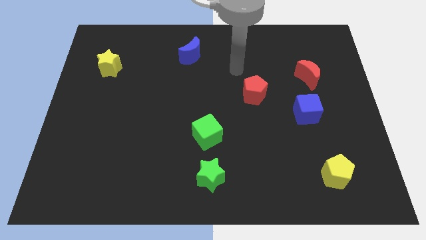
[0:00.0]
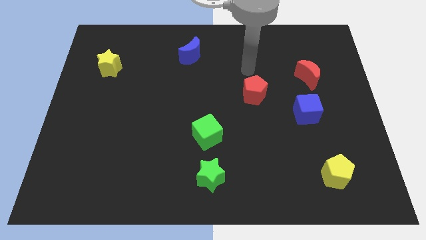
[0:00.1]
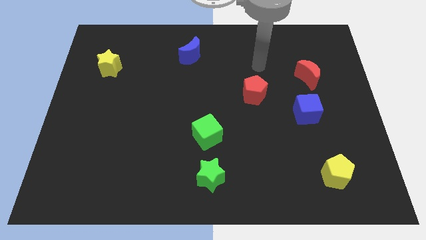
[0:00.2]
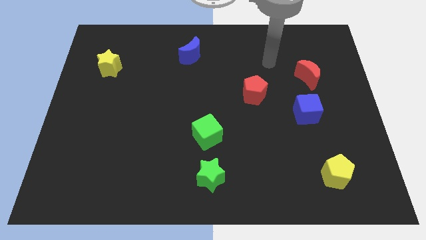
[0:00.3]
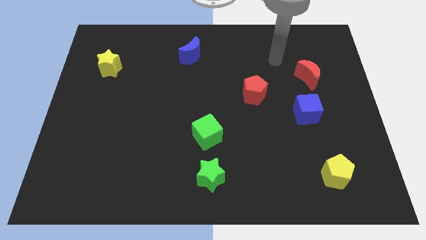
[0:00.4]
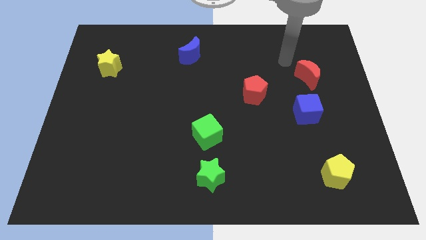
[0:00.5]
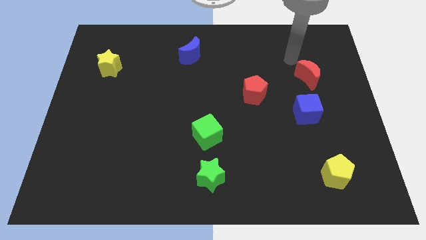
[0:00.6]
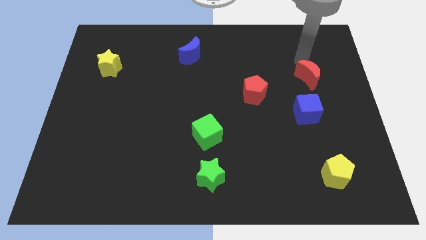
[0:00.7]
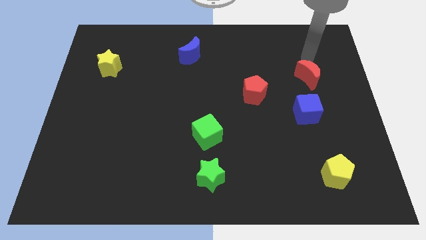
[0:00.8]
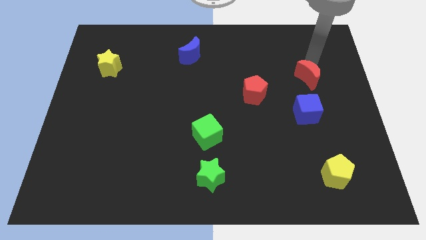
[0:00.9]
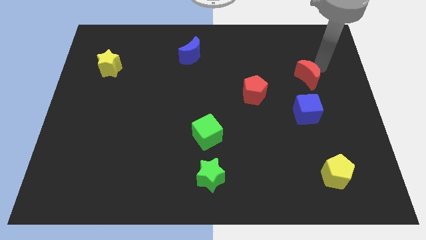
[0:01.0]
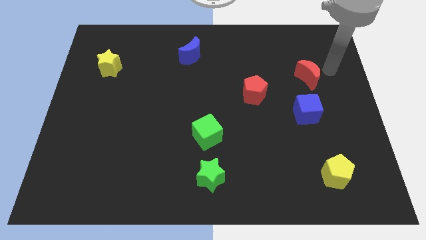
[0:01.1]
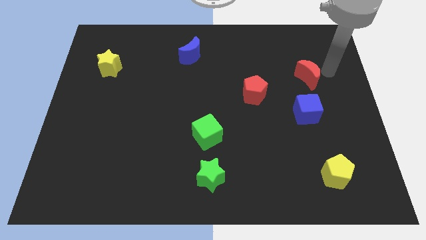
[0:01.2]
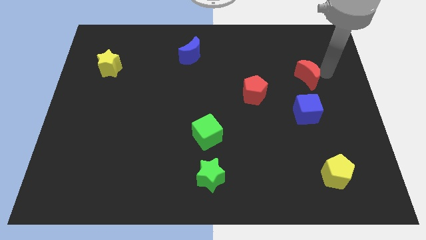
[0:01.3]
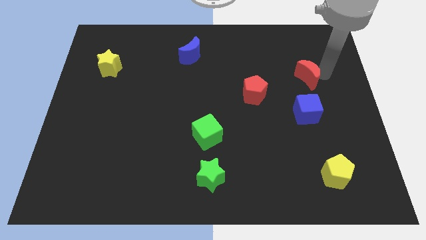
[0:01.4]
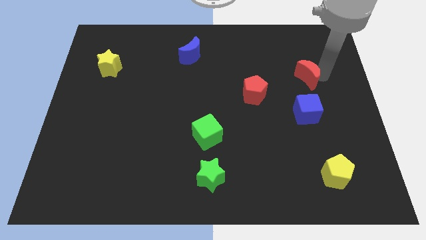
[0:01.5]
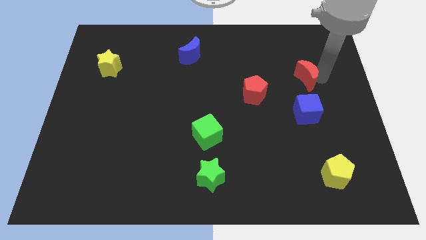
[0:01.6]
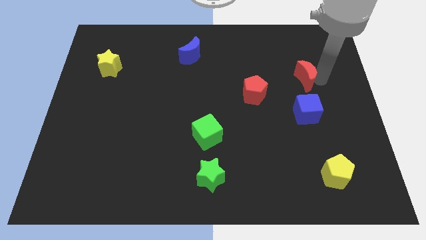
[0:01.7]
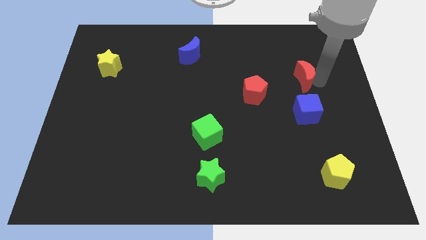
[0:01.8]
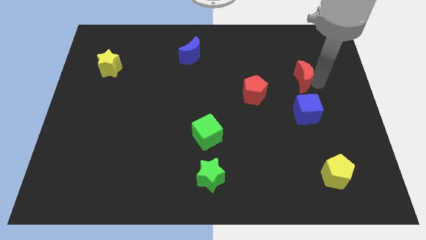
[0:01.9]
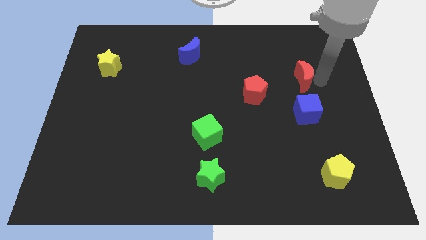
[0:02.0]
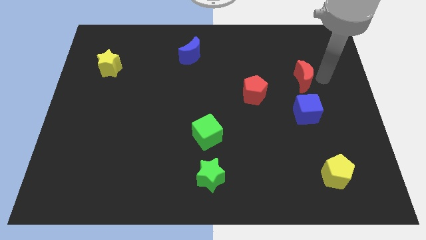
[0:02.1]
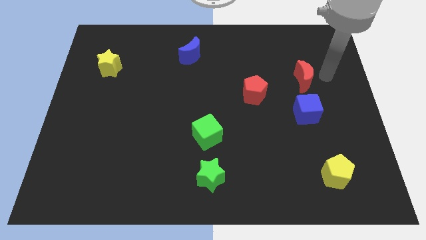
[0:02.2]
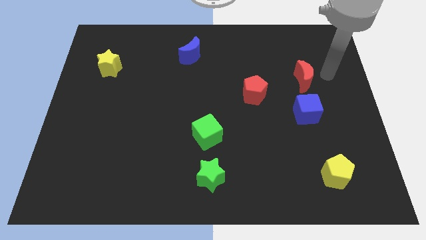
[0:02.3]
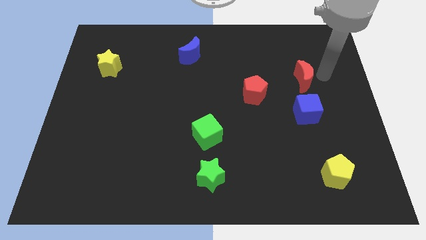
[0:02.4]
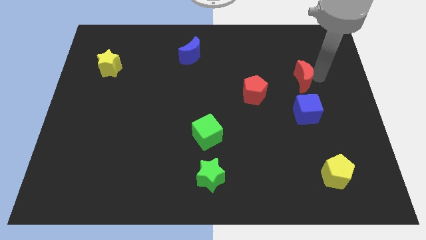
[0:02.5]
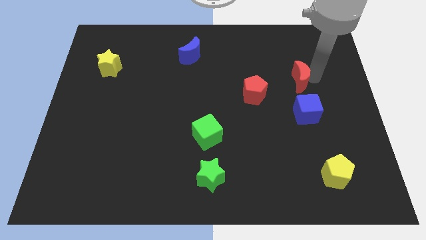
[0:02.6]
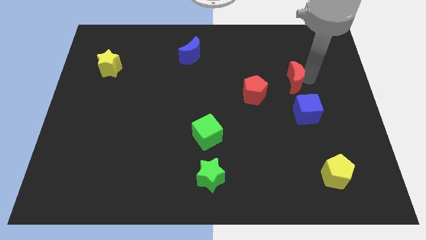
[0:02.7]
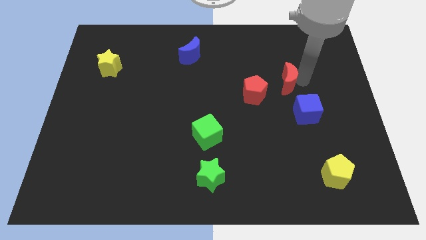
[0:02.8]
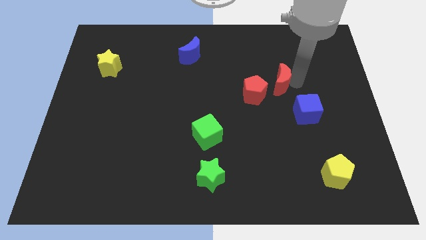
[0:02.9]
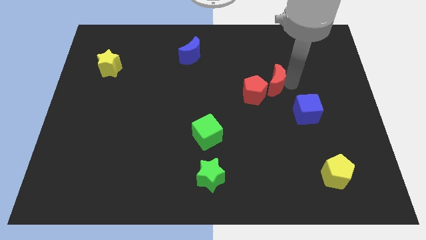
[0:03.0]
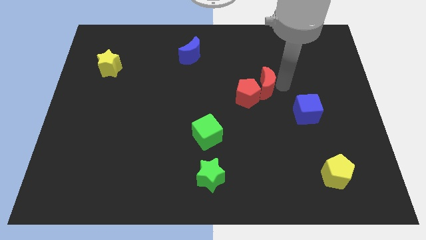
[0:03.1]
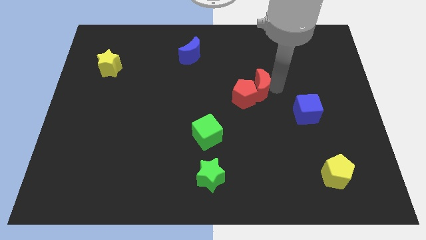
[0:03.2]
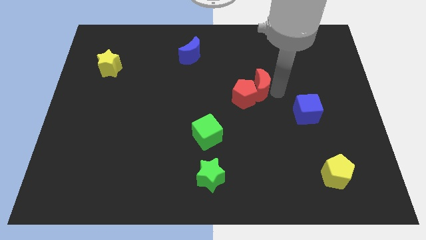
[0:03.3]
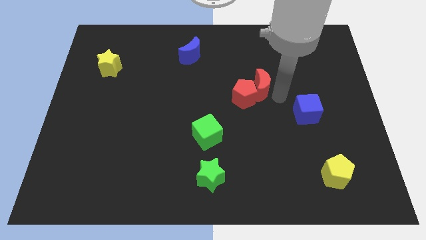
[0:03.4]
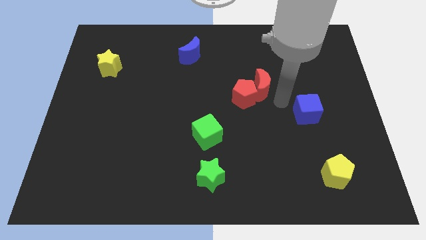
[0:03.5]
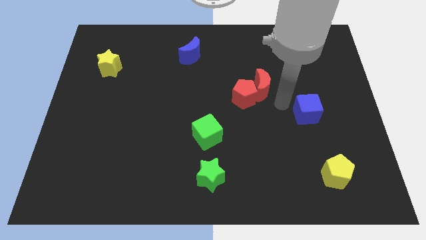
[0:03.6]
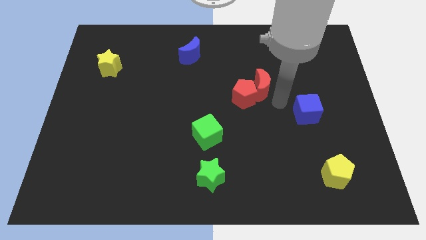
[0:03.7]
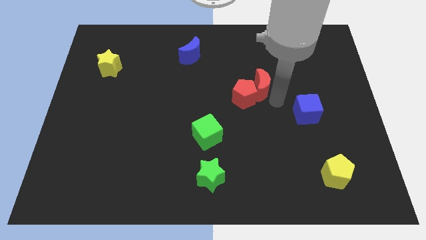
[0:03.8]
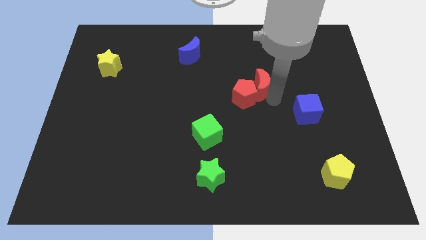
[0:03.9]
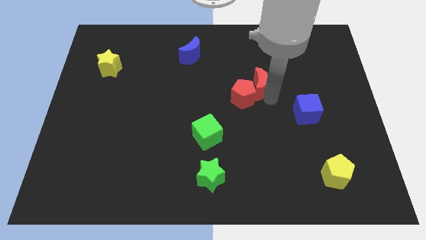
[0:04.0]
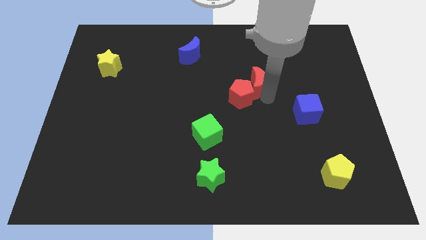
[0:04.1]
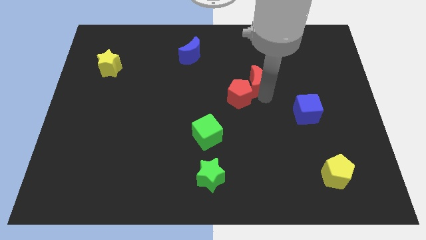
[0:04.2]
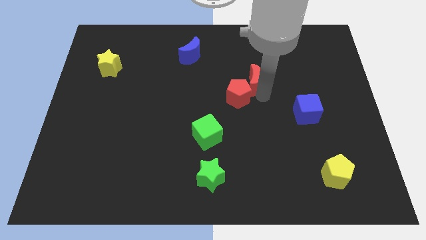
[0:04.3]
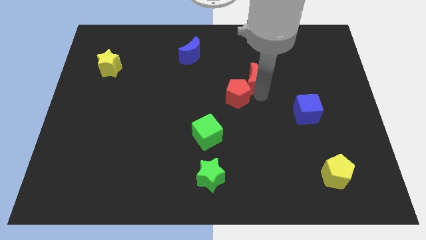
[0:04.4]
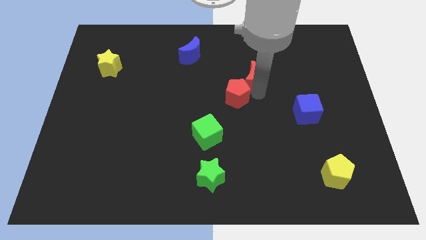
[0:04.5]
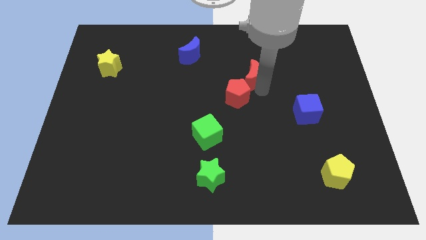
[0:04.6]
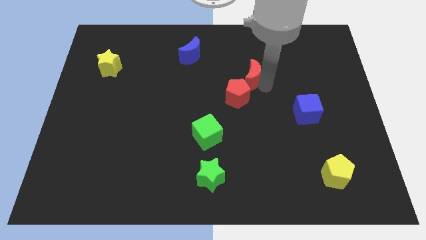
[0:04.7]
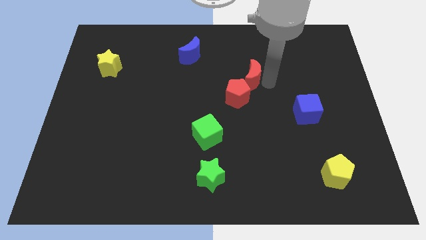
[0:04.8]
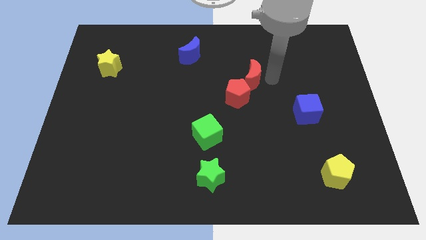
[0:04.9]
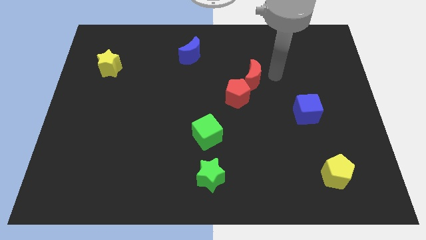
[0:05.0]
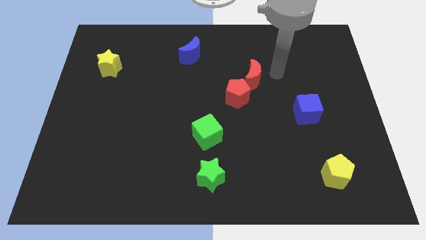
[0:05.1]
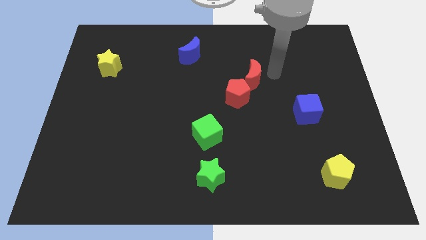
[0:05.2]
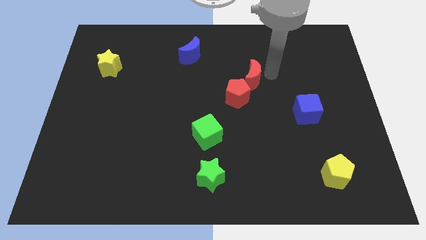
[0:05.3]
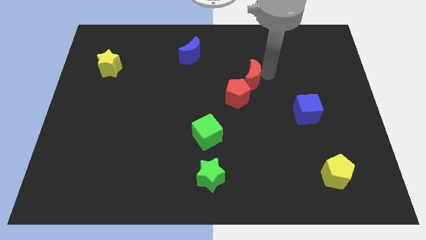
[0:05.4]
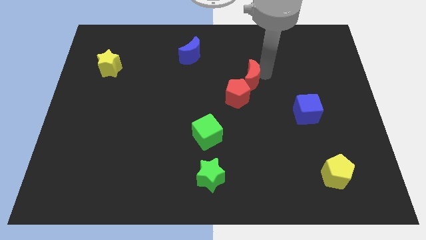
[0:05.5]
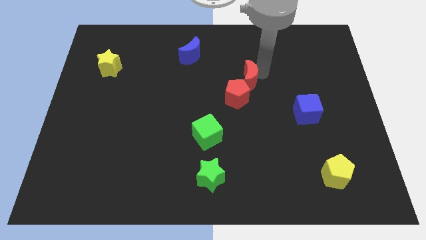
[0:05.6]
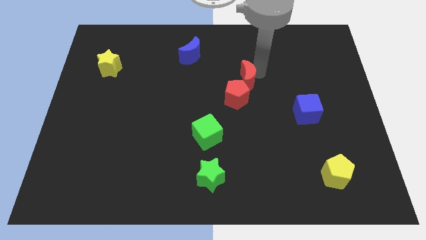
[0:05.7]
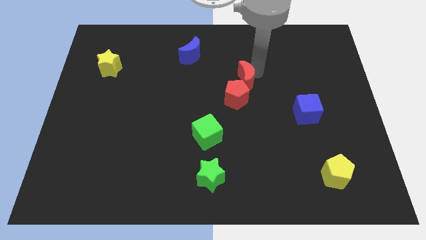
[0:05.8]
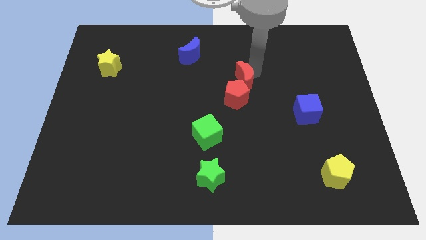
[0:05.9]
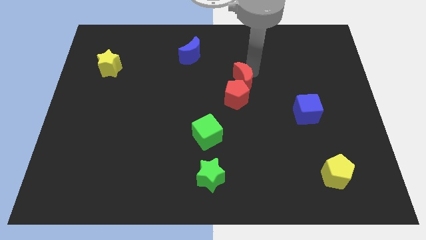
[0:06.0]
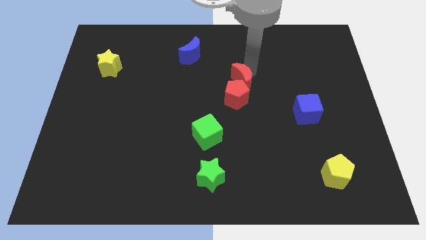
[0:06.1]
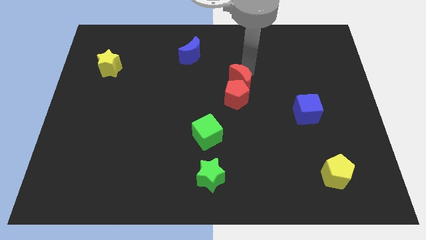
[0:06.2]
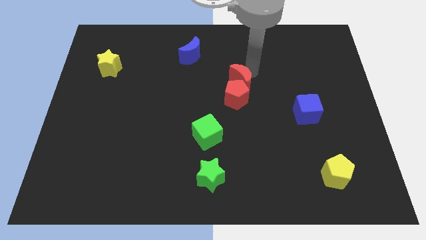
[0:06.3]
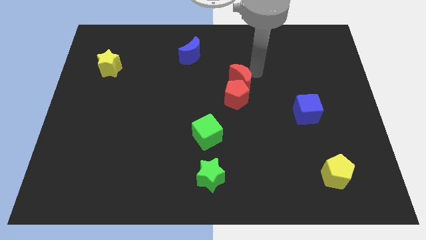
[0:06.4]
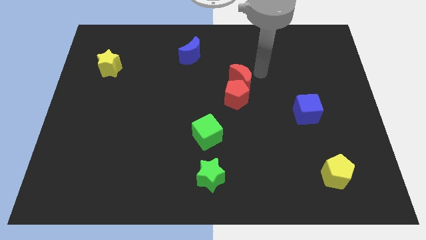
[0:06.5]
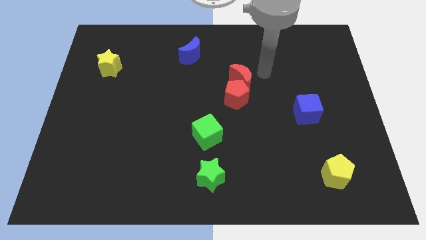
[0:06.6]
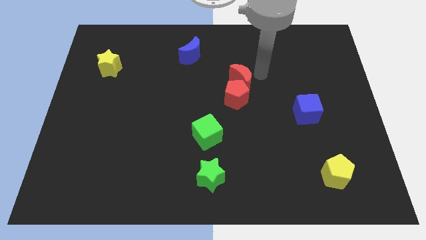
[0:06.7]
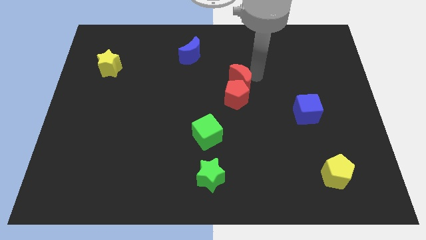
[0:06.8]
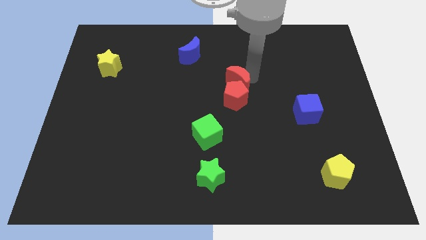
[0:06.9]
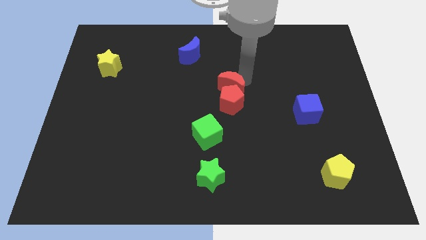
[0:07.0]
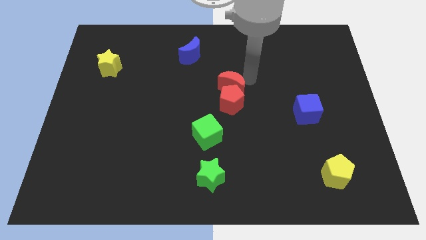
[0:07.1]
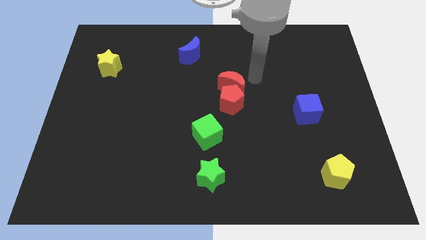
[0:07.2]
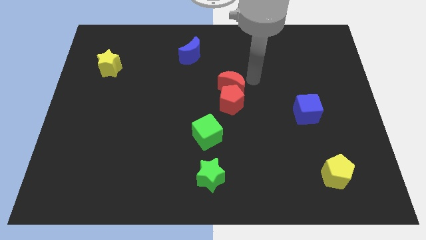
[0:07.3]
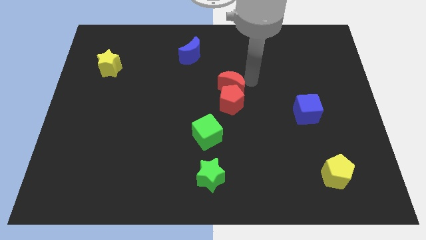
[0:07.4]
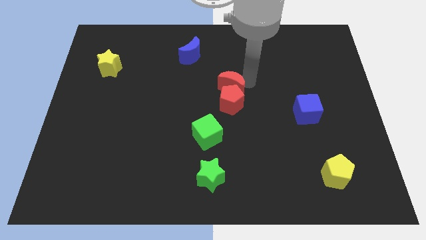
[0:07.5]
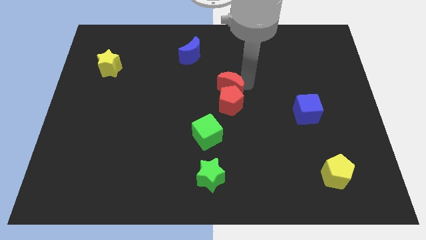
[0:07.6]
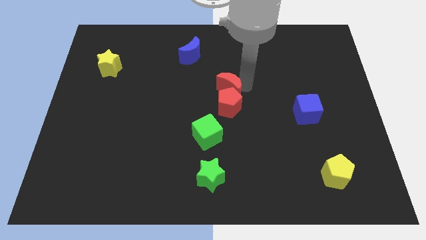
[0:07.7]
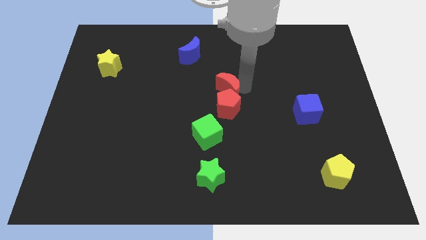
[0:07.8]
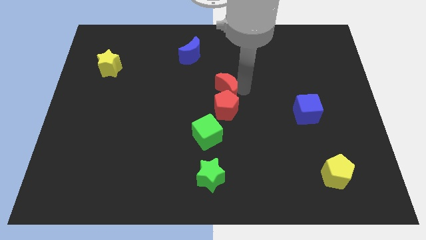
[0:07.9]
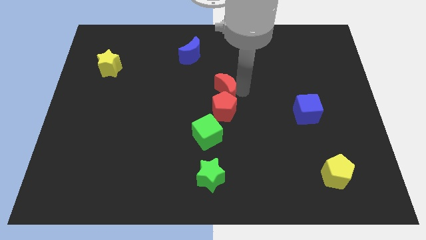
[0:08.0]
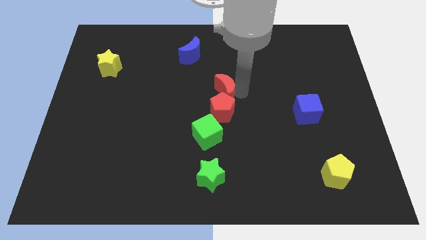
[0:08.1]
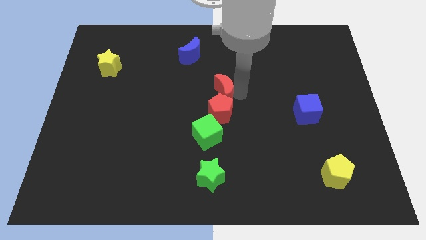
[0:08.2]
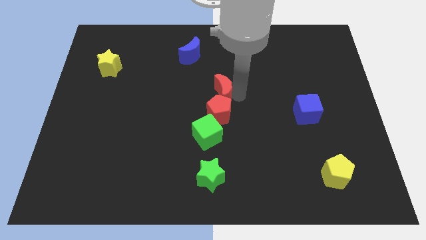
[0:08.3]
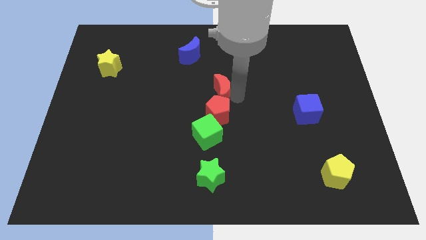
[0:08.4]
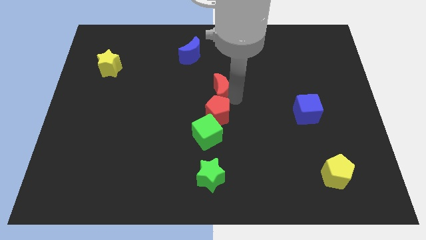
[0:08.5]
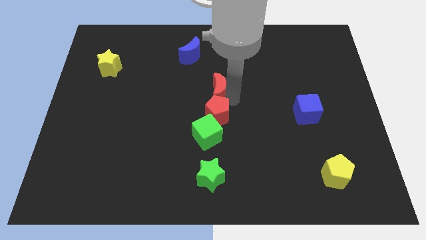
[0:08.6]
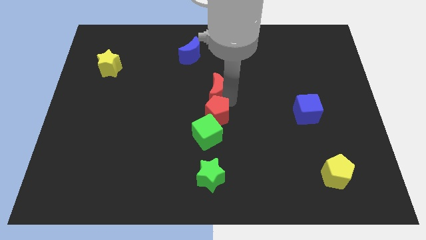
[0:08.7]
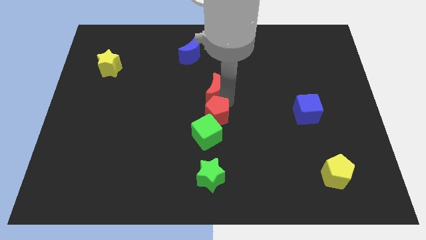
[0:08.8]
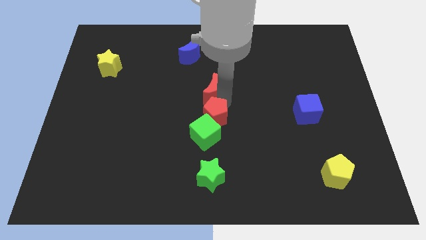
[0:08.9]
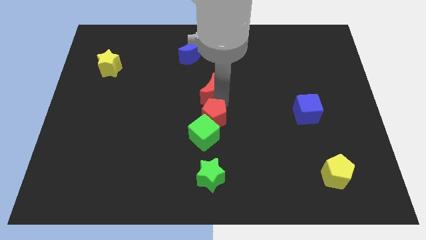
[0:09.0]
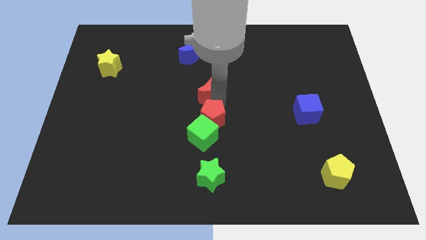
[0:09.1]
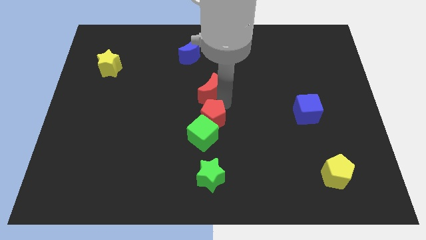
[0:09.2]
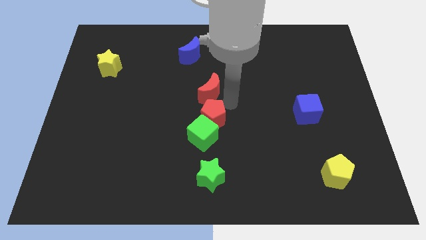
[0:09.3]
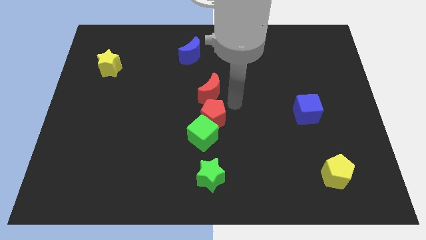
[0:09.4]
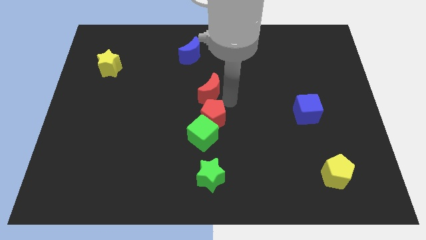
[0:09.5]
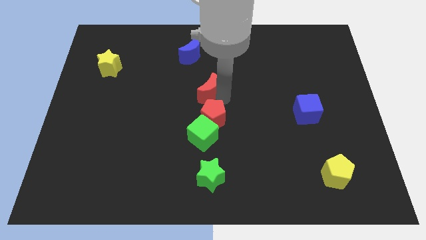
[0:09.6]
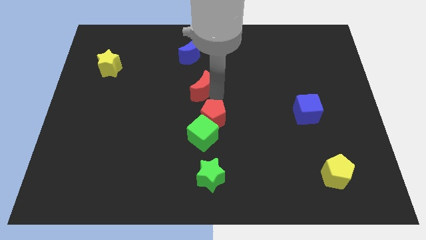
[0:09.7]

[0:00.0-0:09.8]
push the red moon to the bottom of the blue moon
